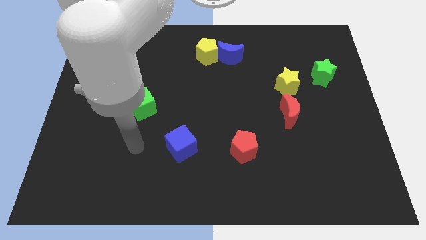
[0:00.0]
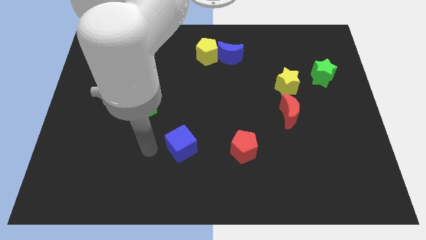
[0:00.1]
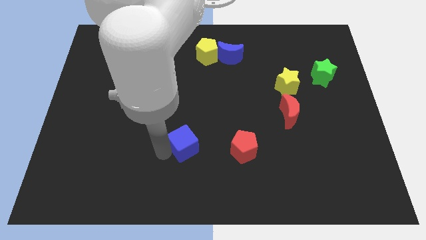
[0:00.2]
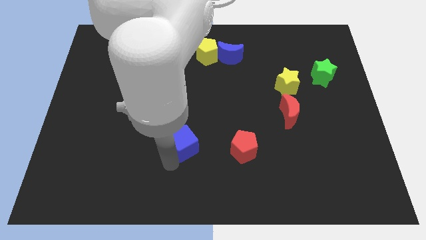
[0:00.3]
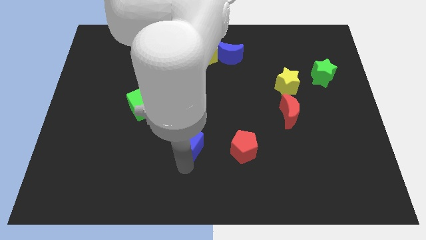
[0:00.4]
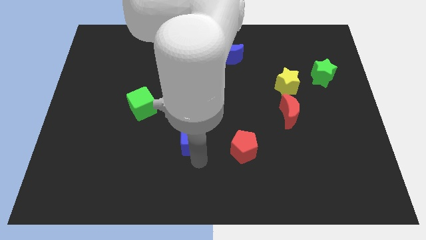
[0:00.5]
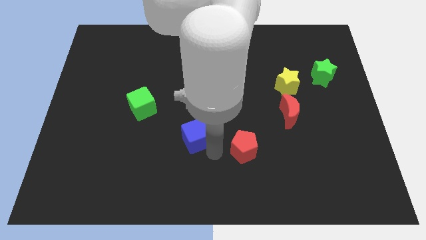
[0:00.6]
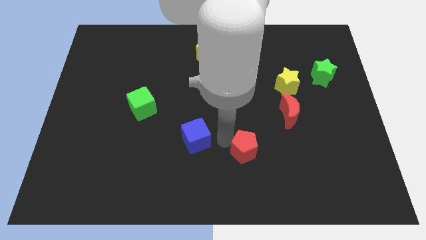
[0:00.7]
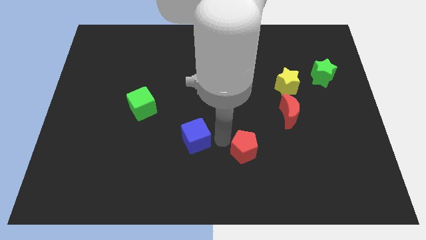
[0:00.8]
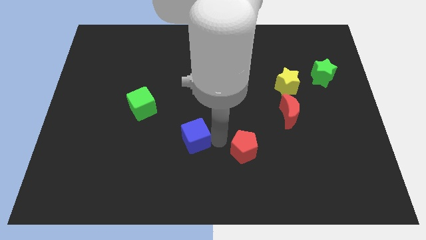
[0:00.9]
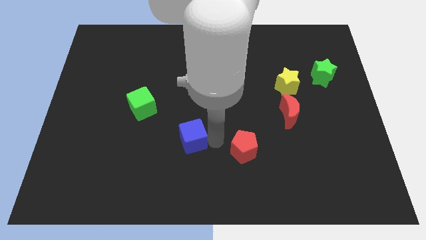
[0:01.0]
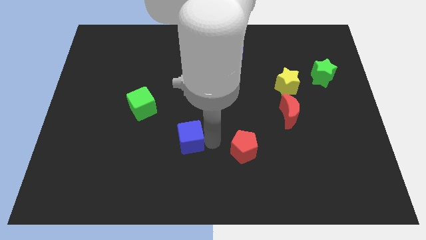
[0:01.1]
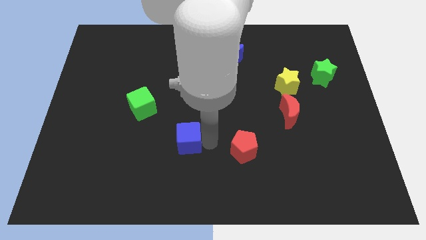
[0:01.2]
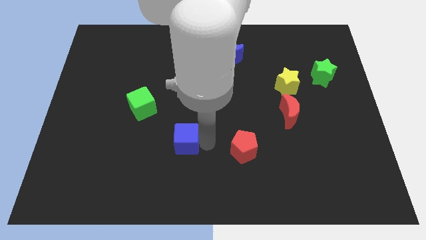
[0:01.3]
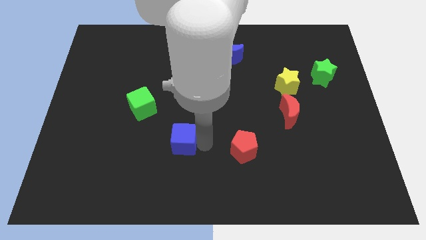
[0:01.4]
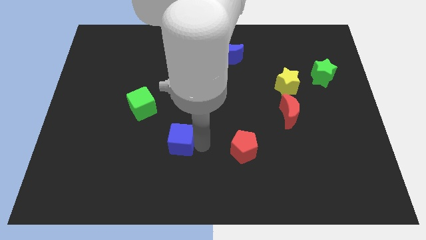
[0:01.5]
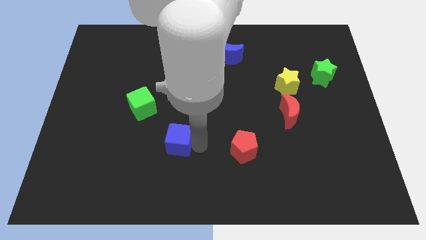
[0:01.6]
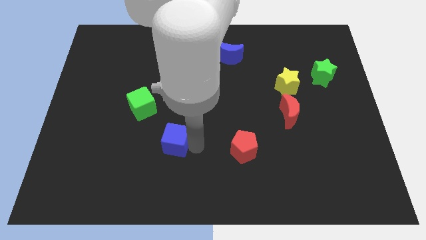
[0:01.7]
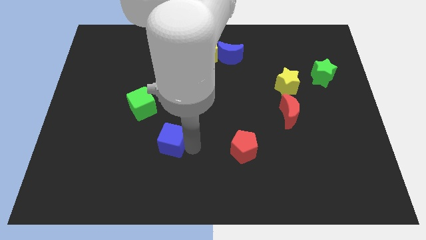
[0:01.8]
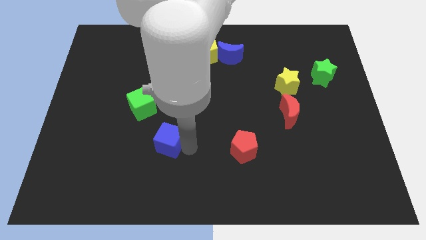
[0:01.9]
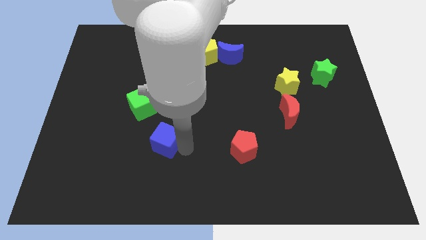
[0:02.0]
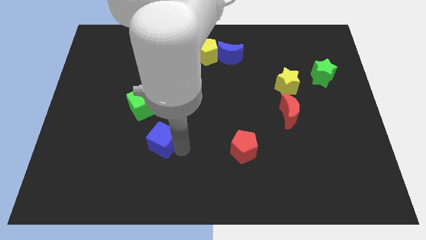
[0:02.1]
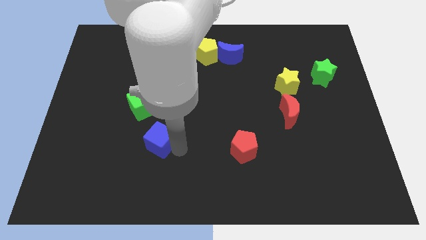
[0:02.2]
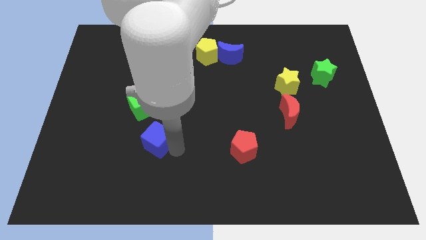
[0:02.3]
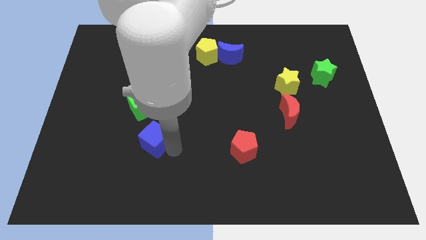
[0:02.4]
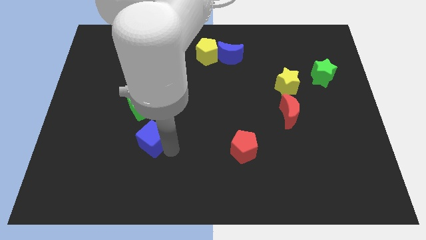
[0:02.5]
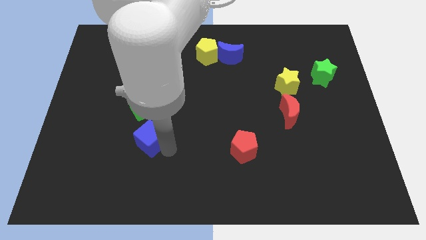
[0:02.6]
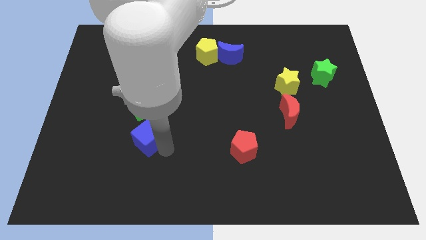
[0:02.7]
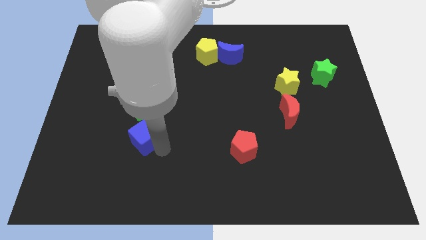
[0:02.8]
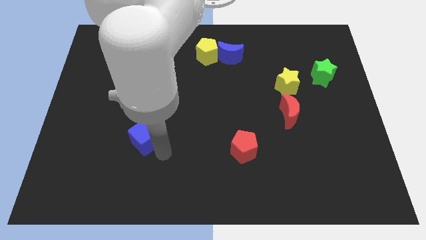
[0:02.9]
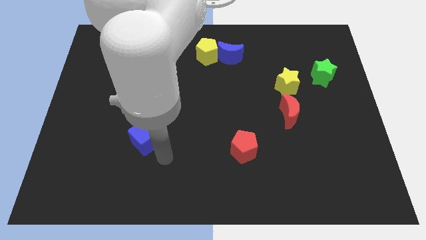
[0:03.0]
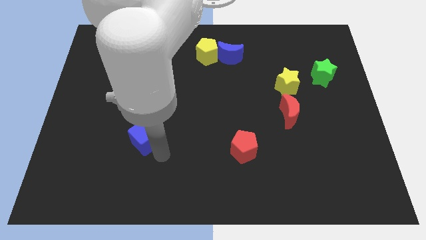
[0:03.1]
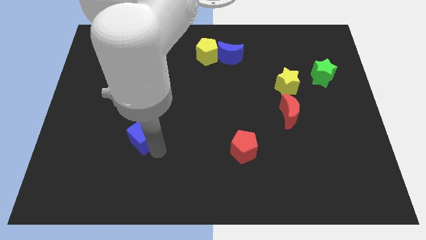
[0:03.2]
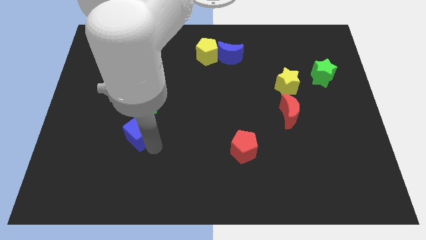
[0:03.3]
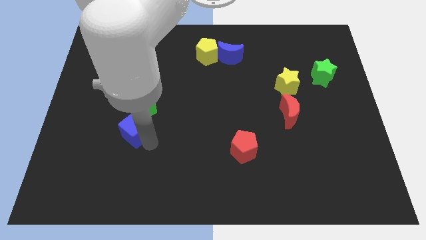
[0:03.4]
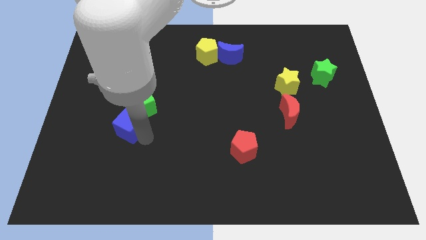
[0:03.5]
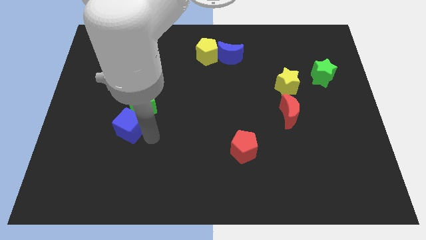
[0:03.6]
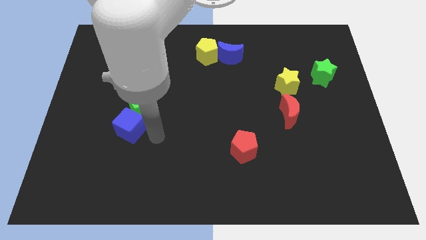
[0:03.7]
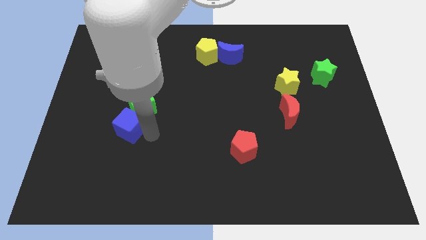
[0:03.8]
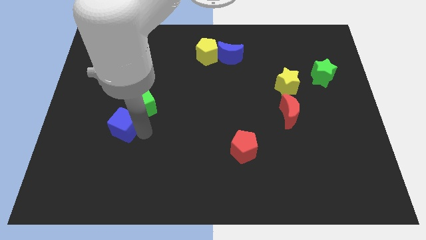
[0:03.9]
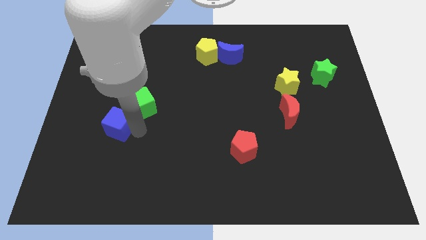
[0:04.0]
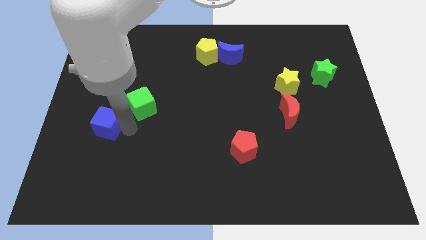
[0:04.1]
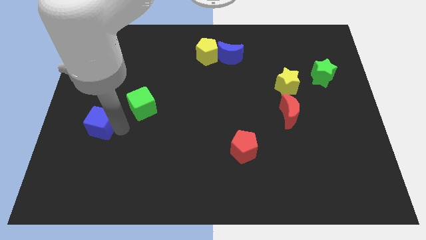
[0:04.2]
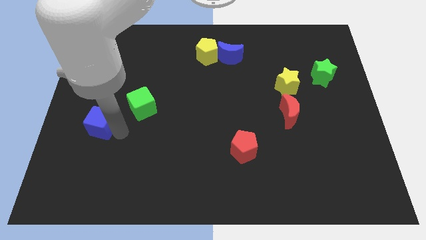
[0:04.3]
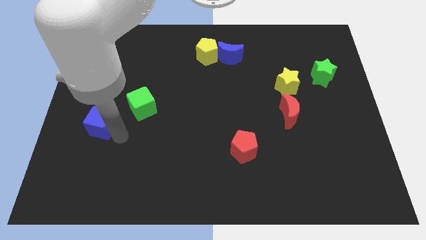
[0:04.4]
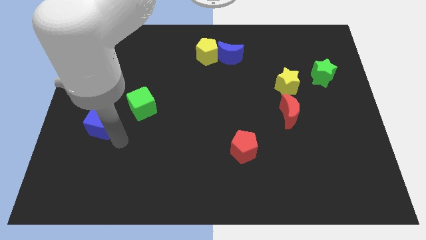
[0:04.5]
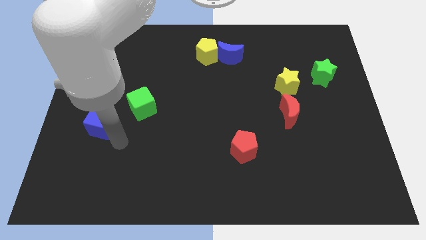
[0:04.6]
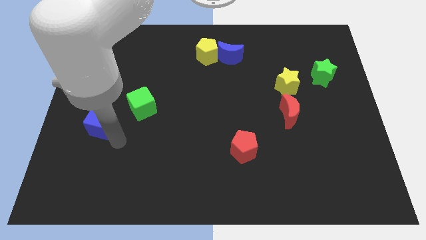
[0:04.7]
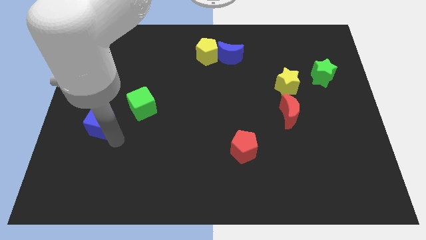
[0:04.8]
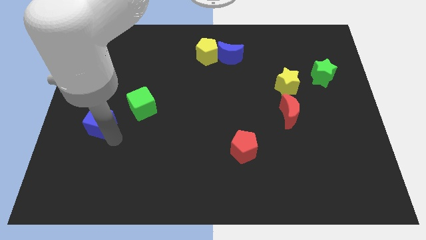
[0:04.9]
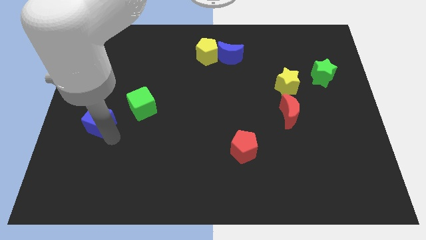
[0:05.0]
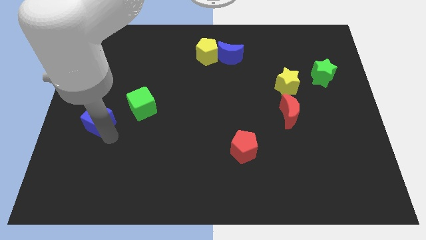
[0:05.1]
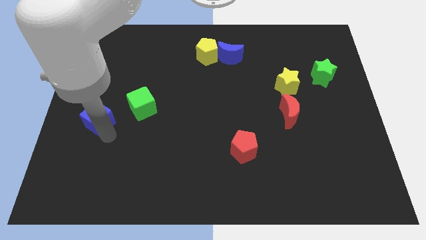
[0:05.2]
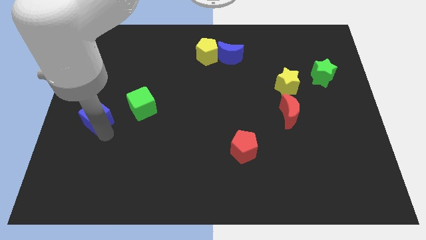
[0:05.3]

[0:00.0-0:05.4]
move the blue cube to the left side of the board
